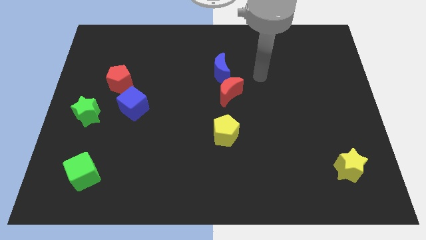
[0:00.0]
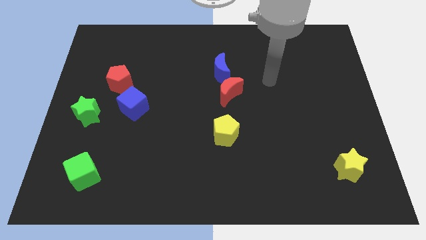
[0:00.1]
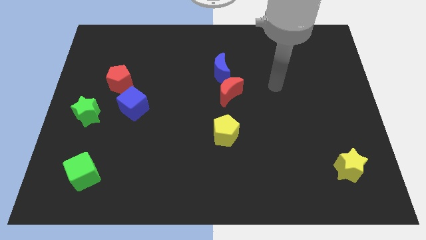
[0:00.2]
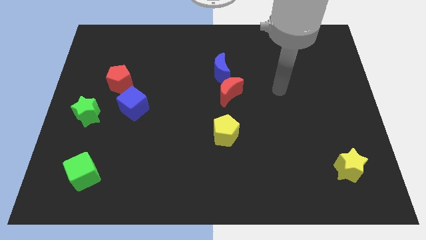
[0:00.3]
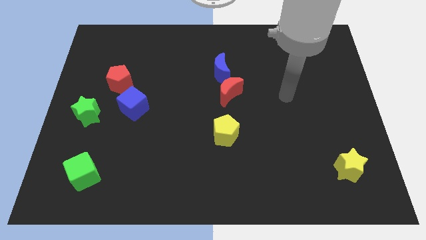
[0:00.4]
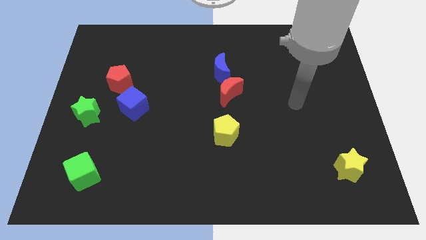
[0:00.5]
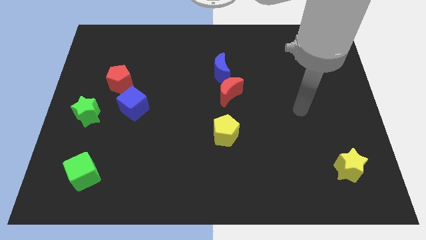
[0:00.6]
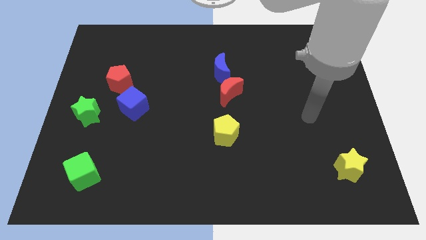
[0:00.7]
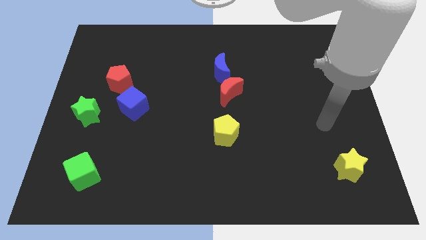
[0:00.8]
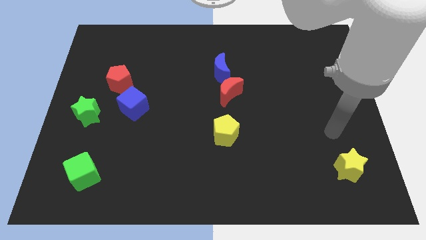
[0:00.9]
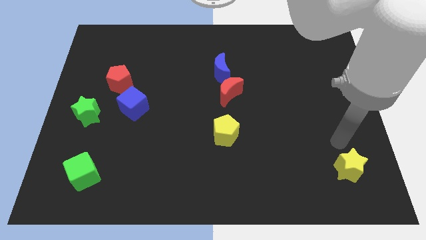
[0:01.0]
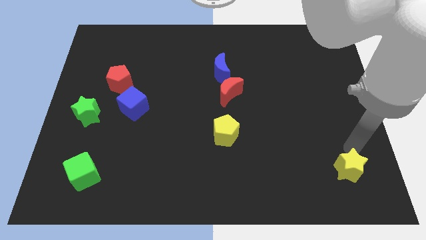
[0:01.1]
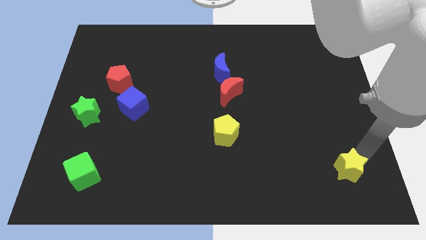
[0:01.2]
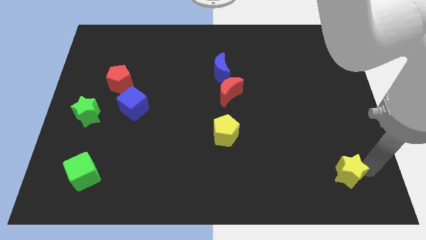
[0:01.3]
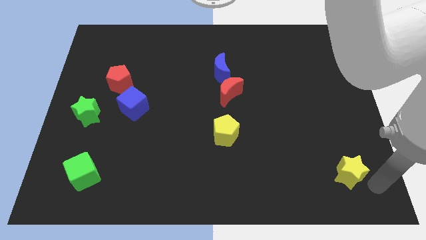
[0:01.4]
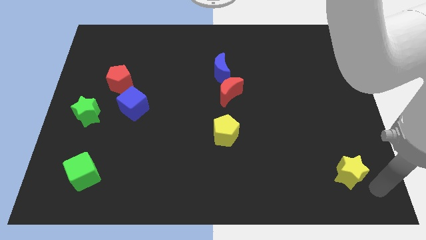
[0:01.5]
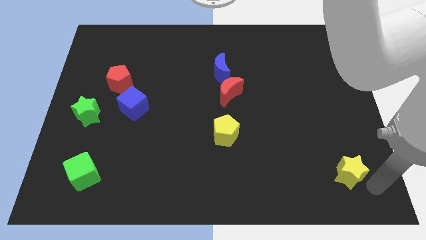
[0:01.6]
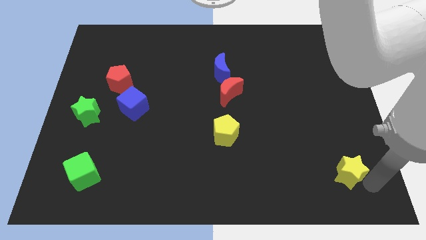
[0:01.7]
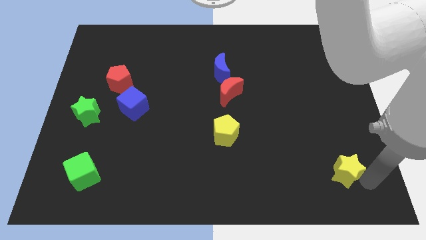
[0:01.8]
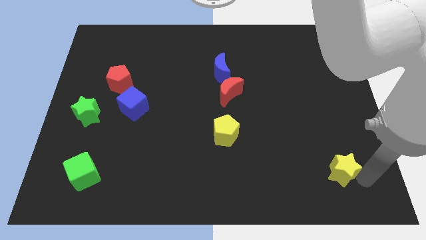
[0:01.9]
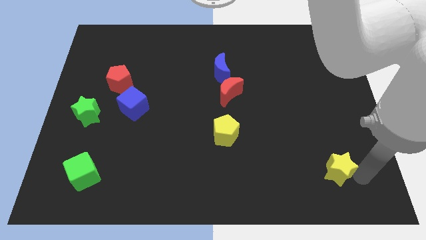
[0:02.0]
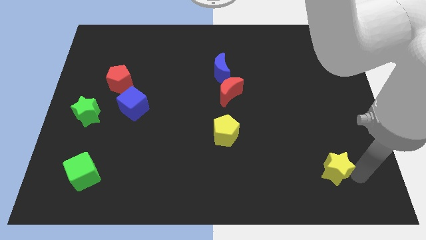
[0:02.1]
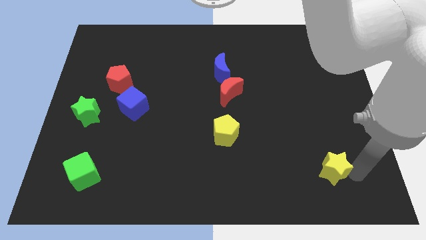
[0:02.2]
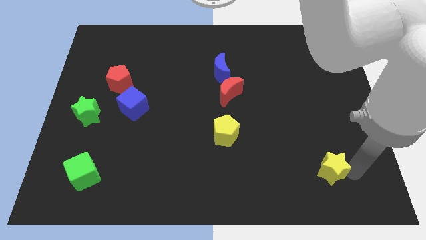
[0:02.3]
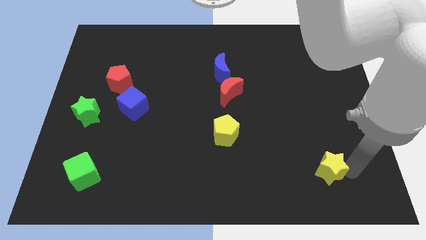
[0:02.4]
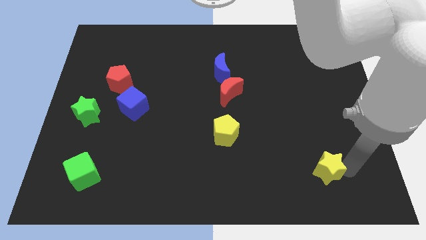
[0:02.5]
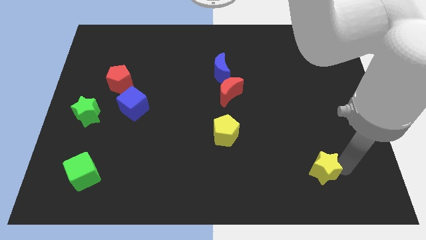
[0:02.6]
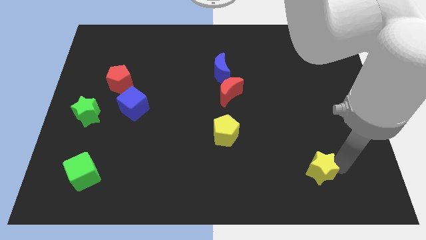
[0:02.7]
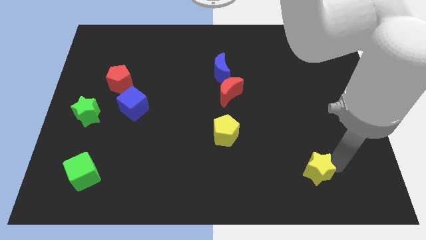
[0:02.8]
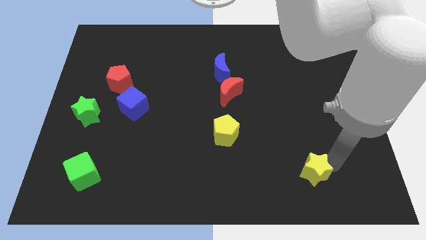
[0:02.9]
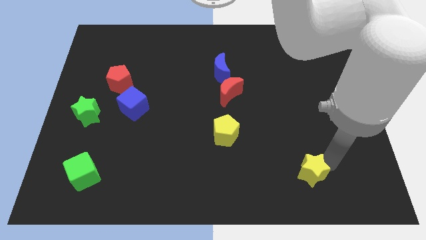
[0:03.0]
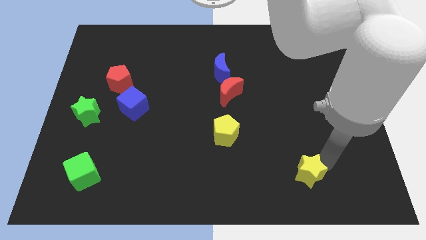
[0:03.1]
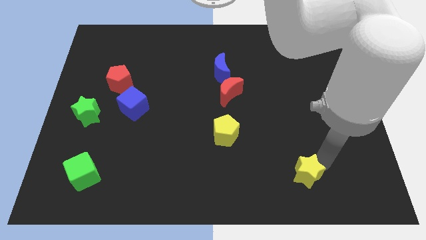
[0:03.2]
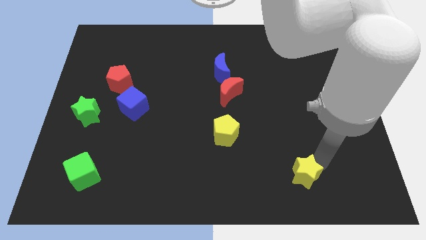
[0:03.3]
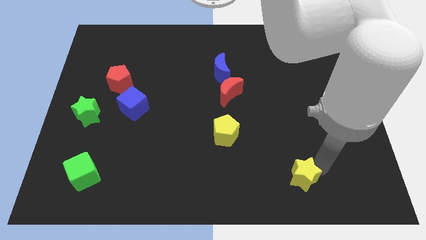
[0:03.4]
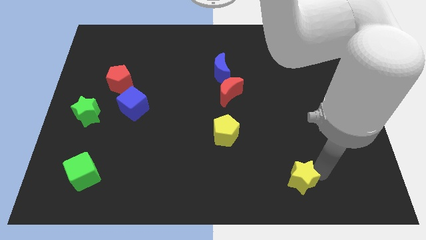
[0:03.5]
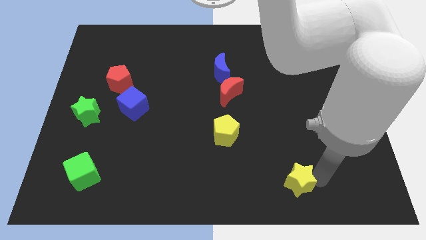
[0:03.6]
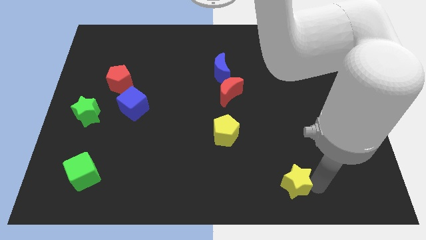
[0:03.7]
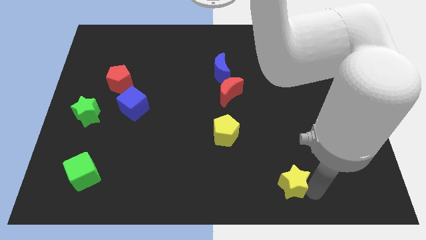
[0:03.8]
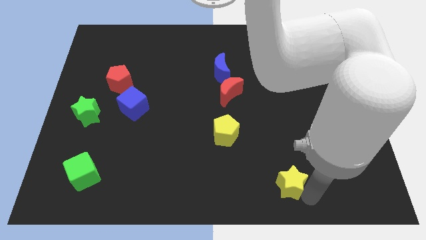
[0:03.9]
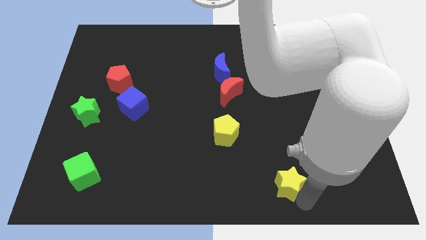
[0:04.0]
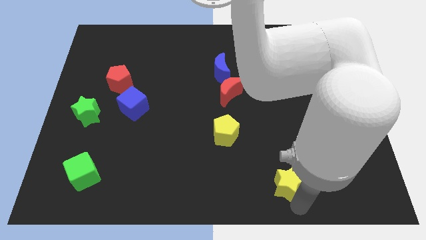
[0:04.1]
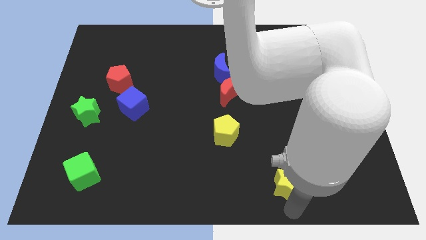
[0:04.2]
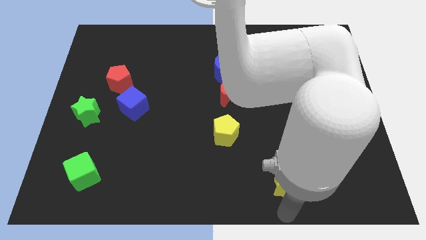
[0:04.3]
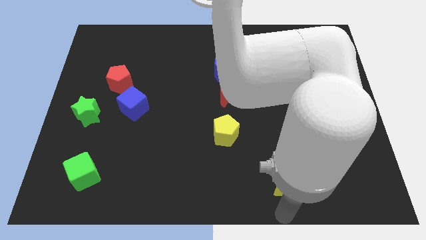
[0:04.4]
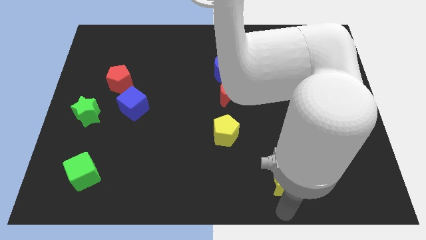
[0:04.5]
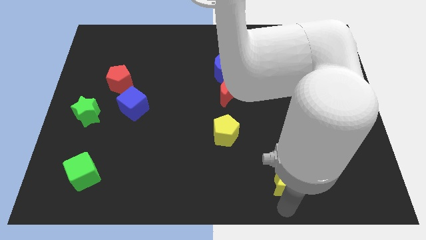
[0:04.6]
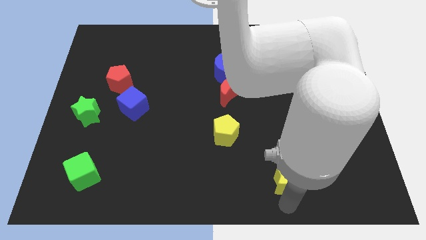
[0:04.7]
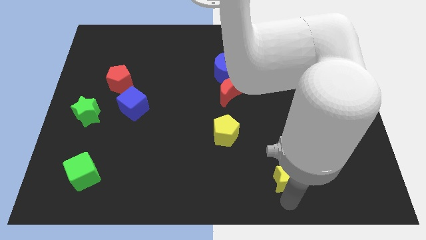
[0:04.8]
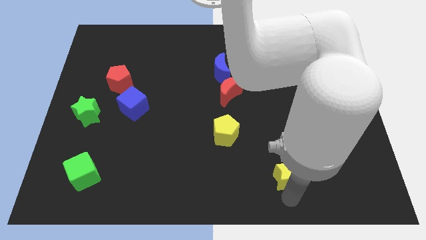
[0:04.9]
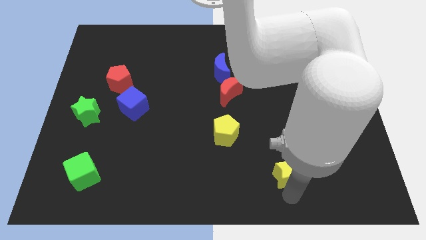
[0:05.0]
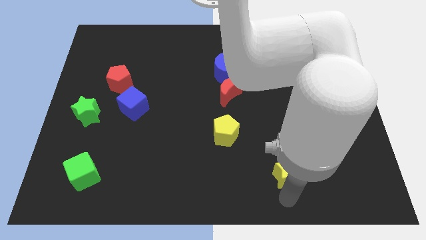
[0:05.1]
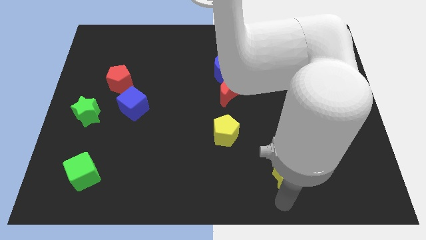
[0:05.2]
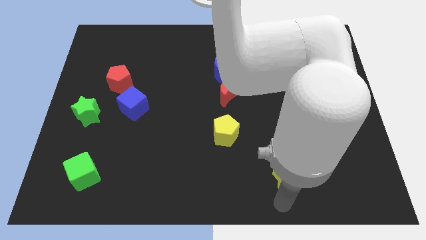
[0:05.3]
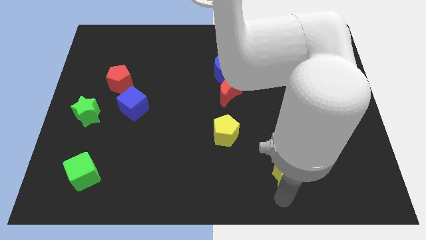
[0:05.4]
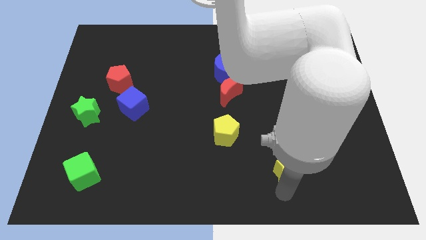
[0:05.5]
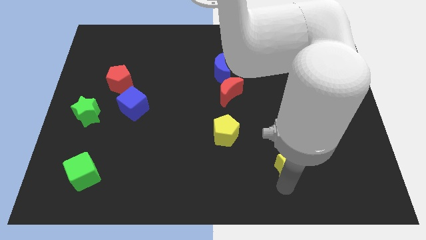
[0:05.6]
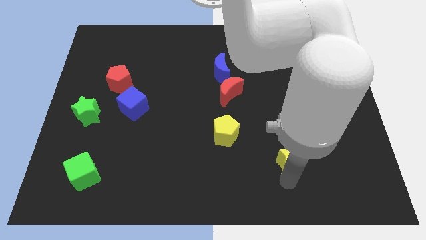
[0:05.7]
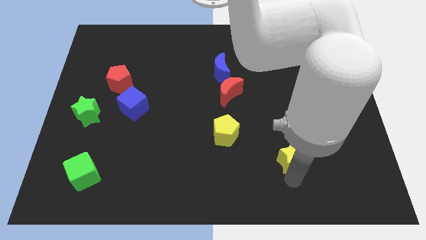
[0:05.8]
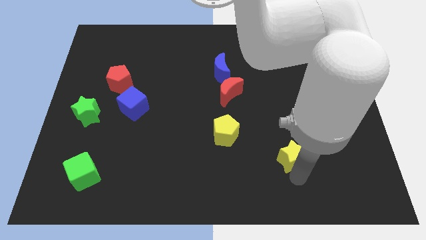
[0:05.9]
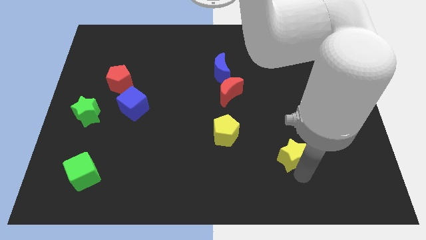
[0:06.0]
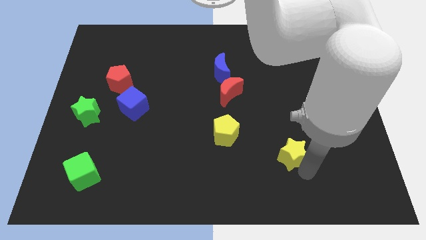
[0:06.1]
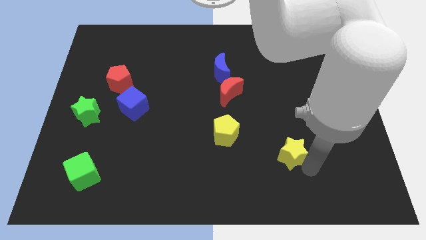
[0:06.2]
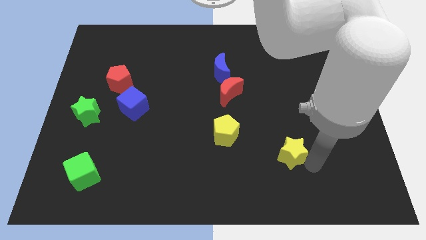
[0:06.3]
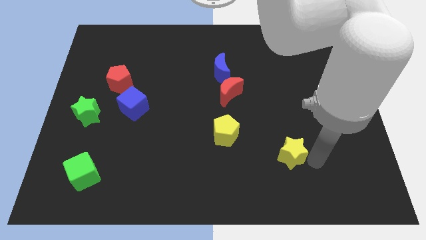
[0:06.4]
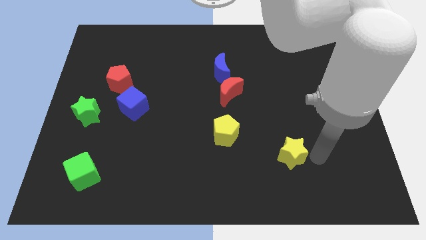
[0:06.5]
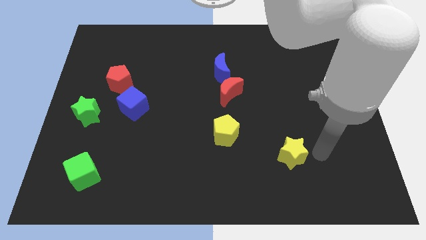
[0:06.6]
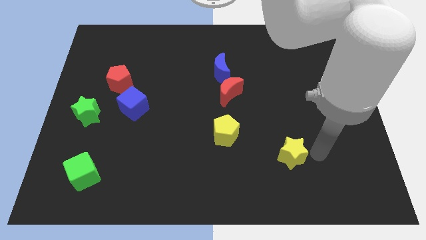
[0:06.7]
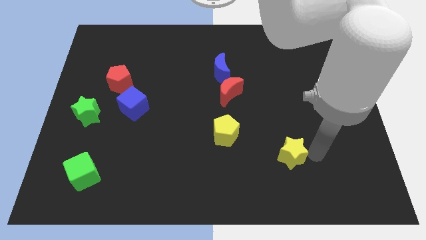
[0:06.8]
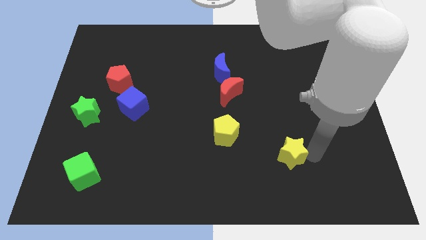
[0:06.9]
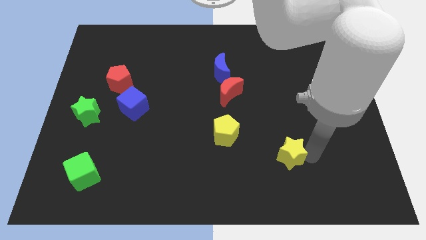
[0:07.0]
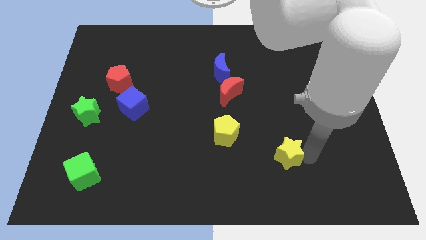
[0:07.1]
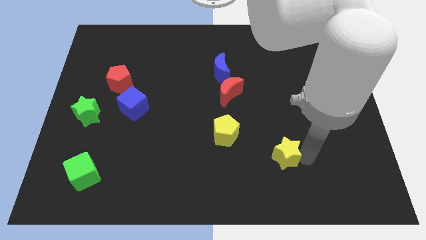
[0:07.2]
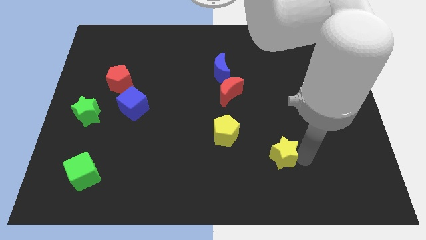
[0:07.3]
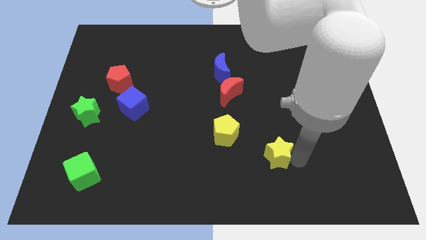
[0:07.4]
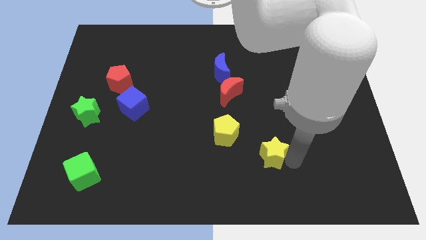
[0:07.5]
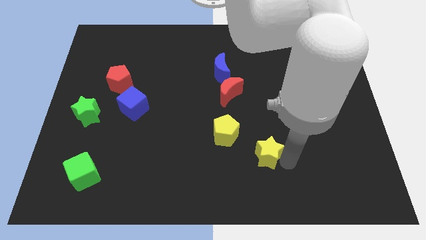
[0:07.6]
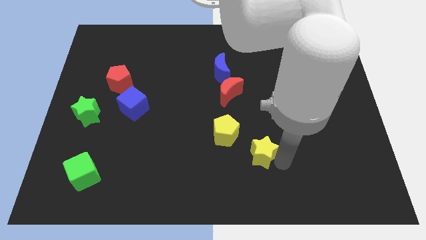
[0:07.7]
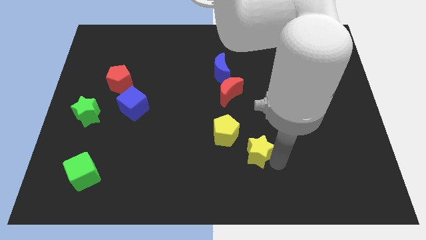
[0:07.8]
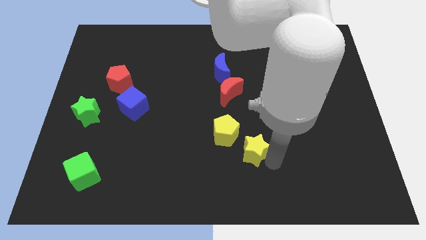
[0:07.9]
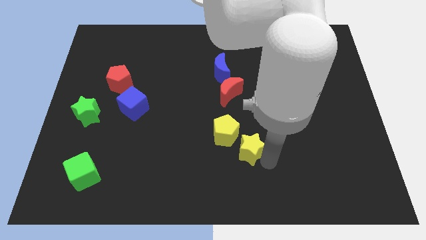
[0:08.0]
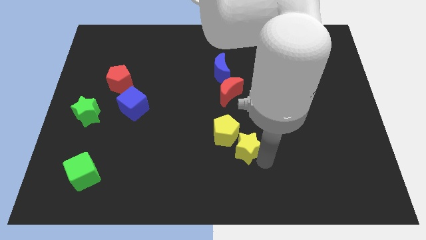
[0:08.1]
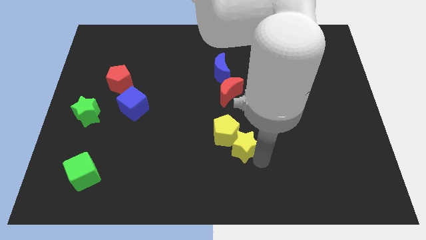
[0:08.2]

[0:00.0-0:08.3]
slide the yellow star close to the yellow pentagon
